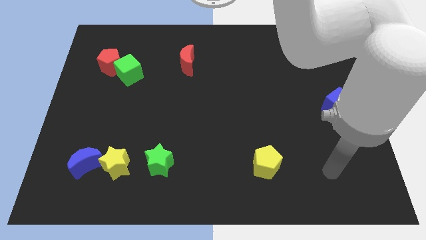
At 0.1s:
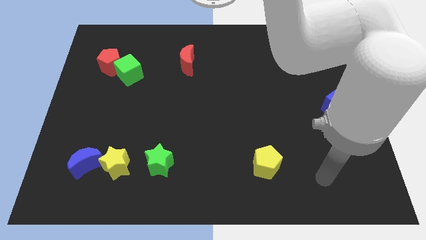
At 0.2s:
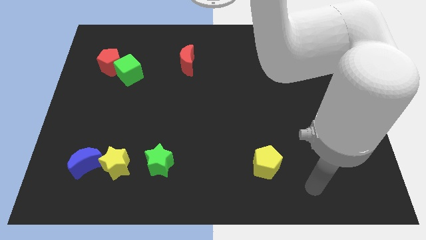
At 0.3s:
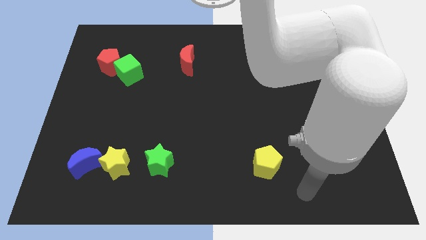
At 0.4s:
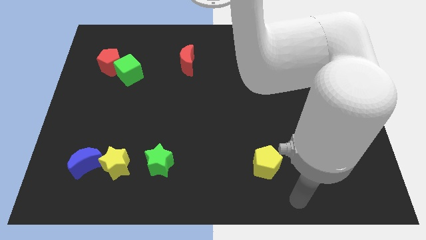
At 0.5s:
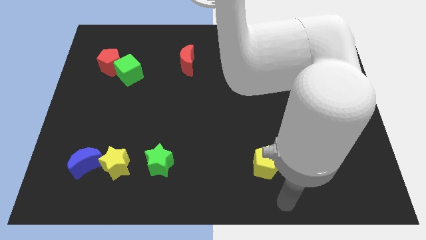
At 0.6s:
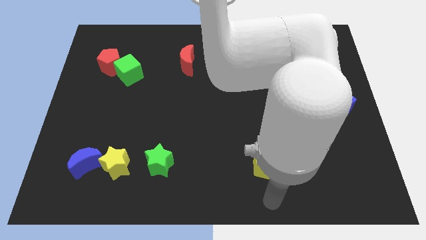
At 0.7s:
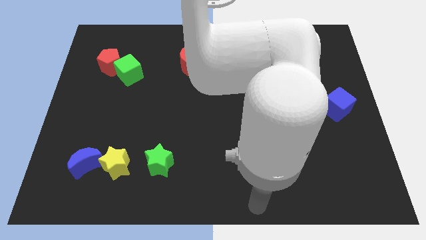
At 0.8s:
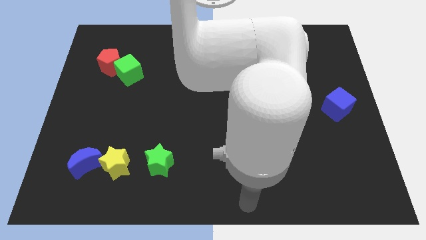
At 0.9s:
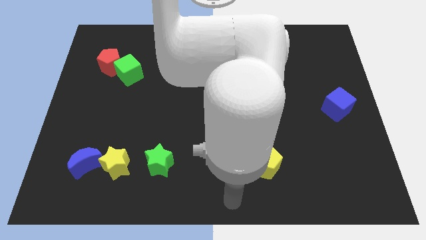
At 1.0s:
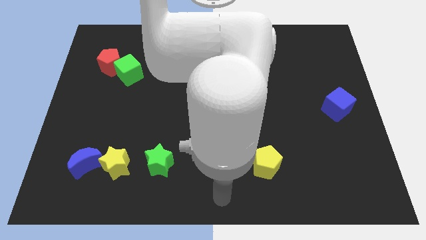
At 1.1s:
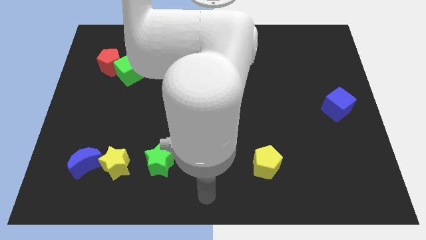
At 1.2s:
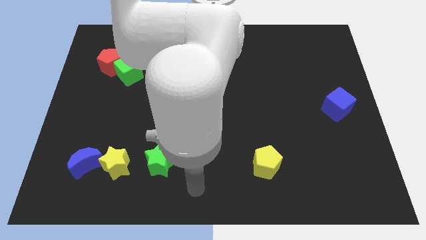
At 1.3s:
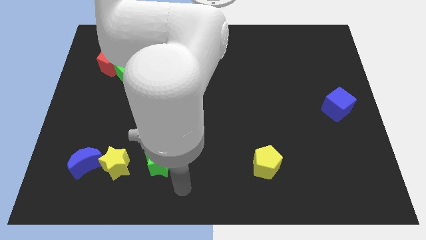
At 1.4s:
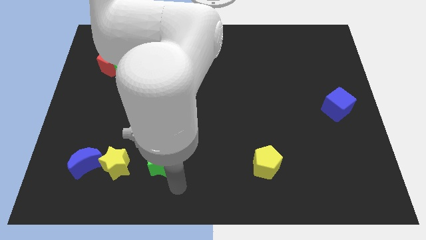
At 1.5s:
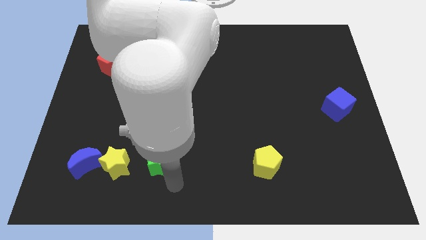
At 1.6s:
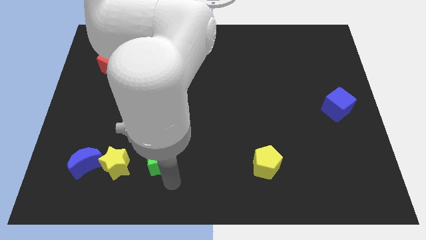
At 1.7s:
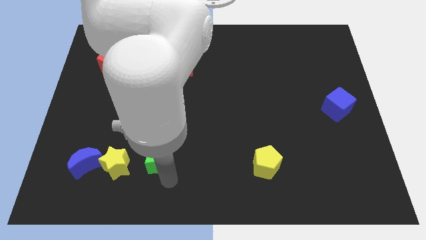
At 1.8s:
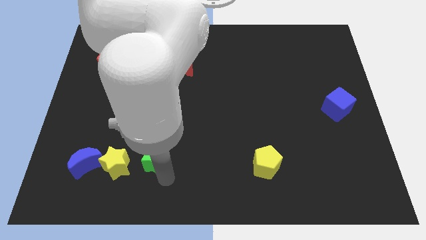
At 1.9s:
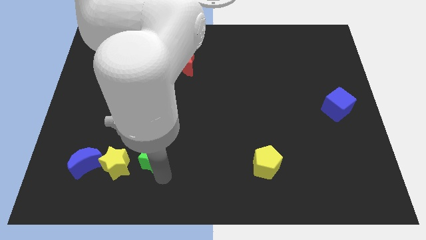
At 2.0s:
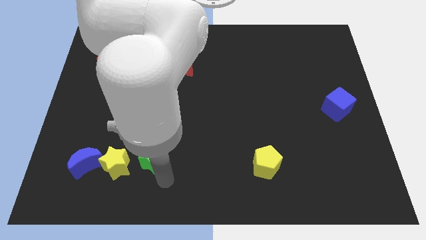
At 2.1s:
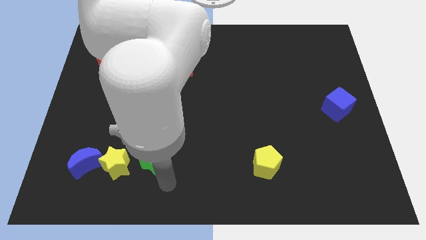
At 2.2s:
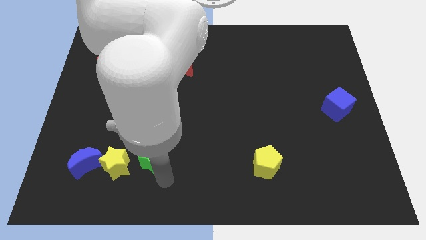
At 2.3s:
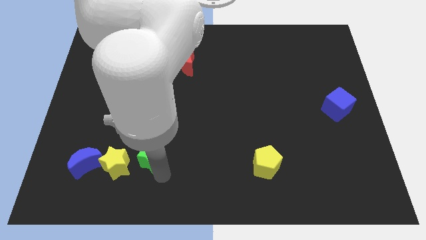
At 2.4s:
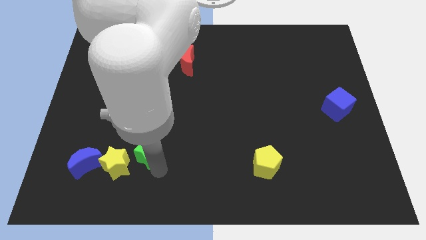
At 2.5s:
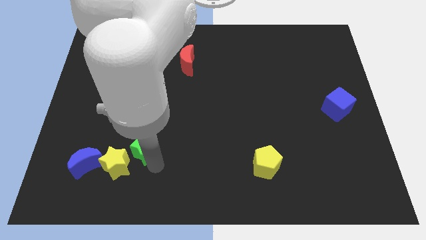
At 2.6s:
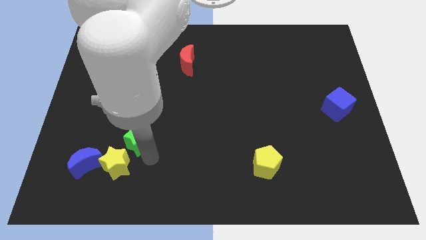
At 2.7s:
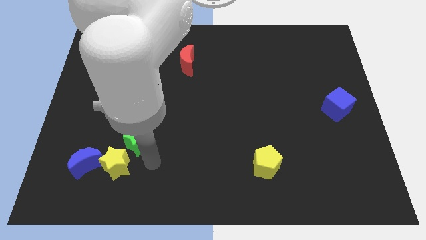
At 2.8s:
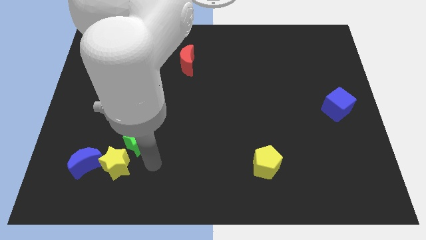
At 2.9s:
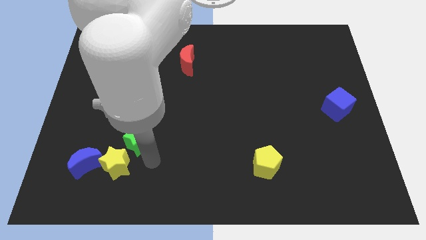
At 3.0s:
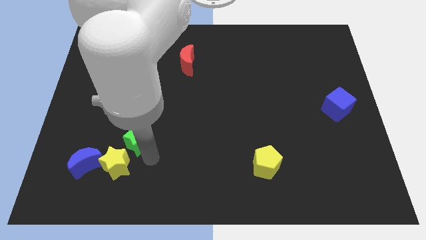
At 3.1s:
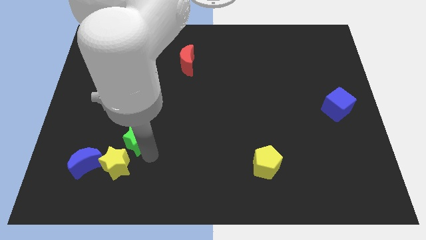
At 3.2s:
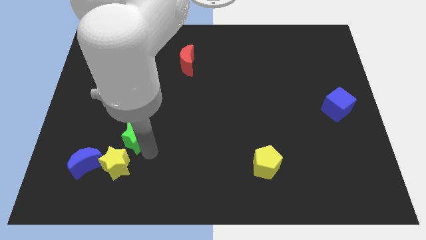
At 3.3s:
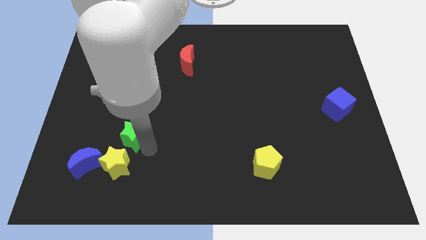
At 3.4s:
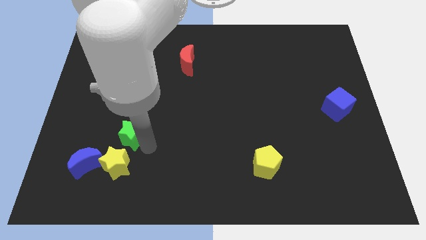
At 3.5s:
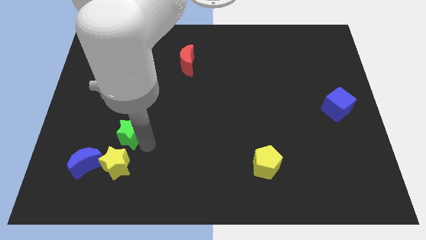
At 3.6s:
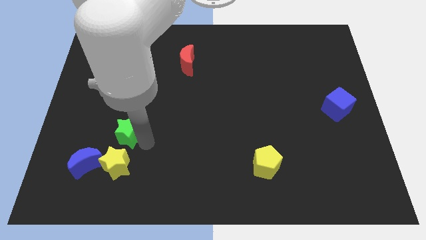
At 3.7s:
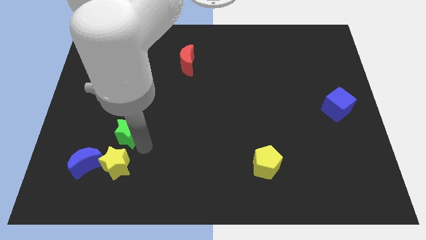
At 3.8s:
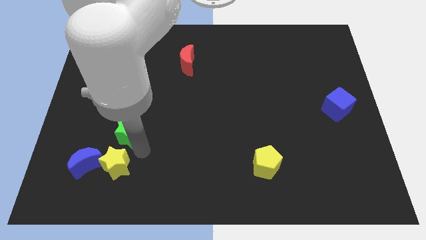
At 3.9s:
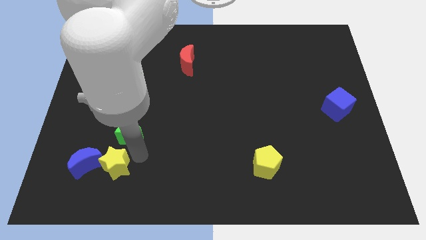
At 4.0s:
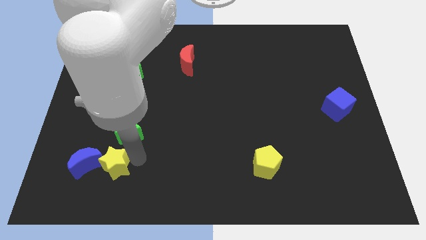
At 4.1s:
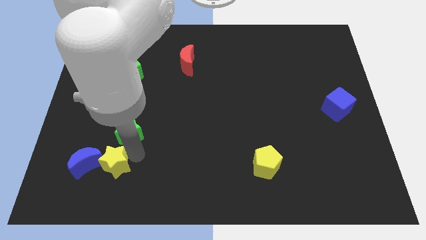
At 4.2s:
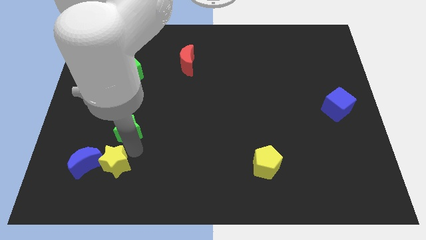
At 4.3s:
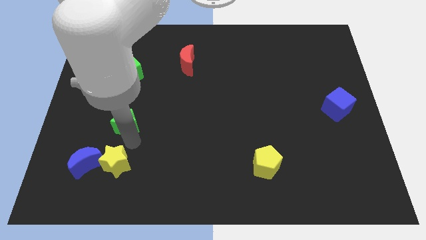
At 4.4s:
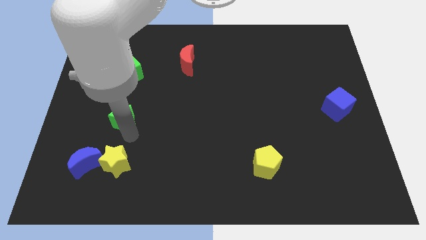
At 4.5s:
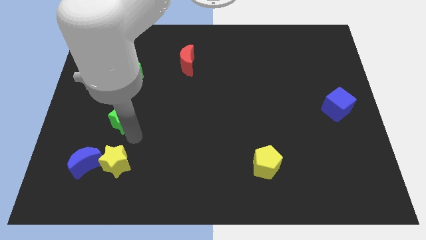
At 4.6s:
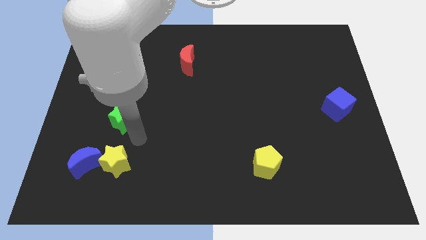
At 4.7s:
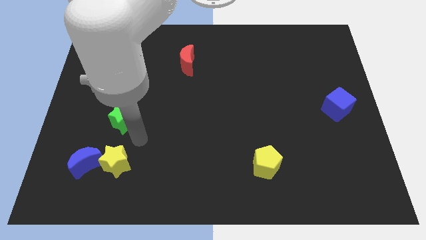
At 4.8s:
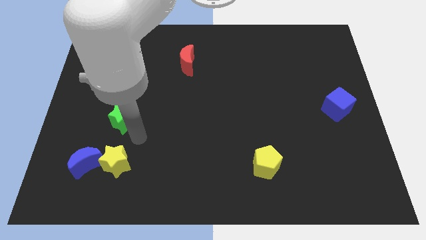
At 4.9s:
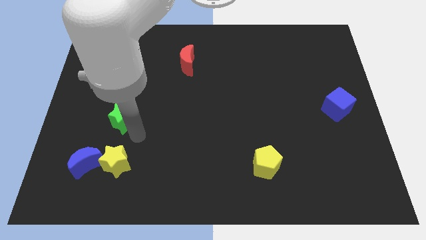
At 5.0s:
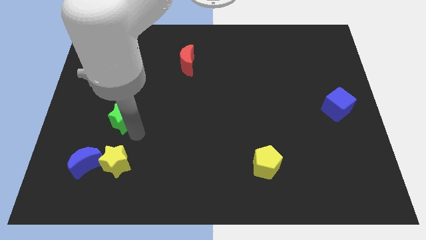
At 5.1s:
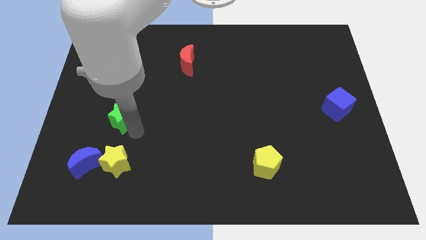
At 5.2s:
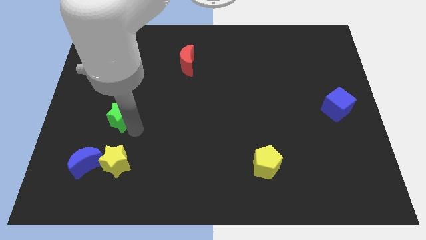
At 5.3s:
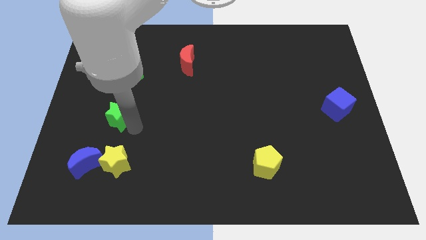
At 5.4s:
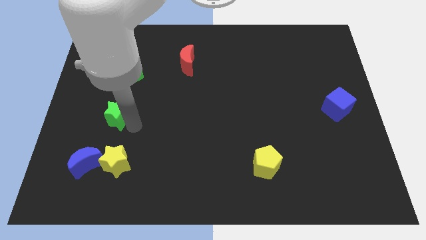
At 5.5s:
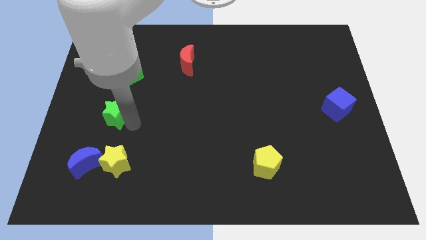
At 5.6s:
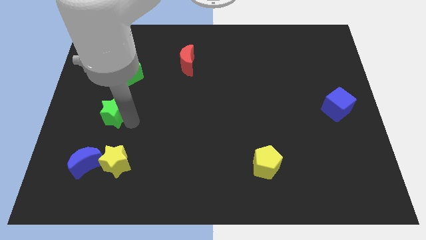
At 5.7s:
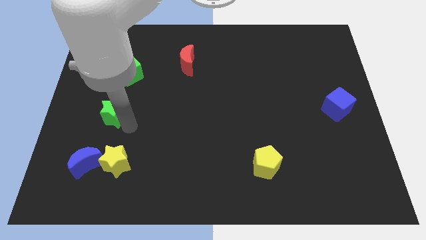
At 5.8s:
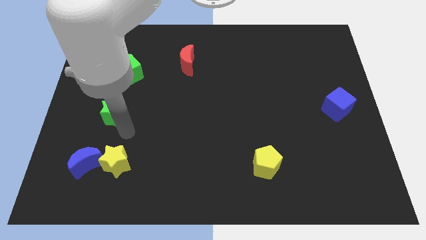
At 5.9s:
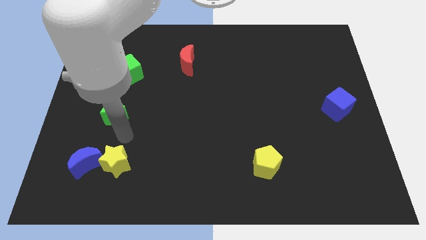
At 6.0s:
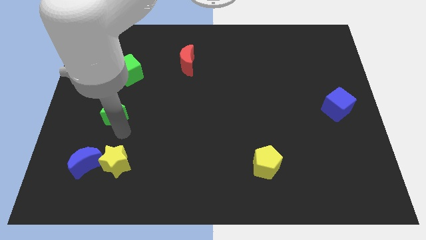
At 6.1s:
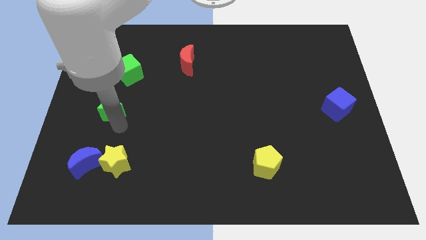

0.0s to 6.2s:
put the green star to the bottom side of the red pentagon

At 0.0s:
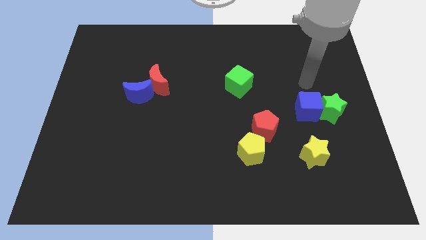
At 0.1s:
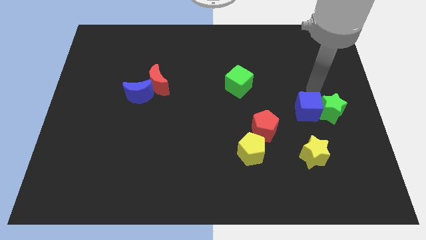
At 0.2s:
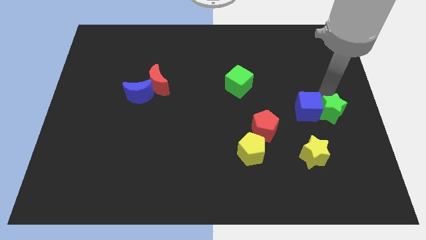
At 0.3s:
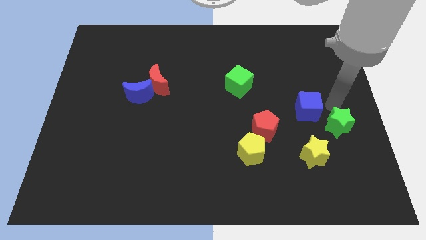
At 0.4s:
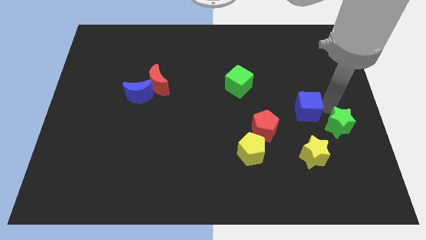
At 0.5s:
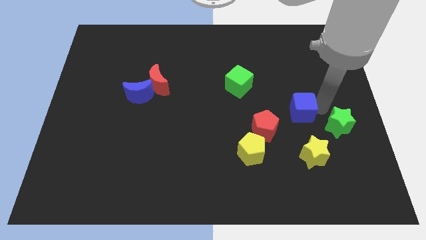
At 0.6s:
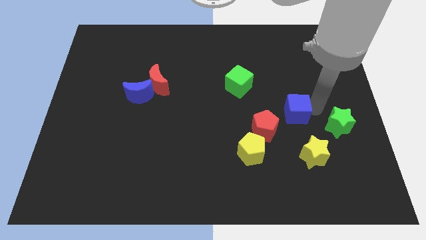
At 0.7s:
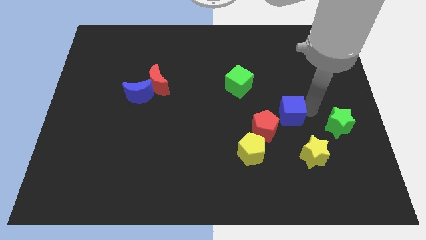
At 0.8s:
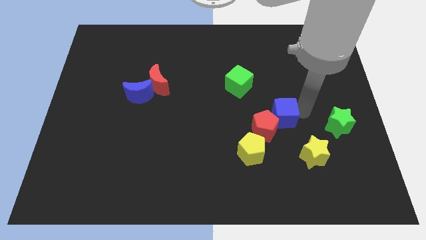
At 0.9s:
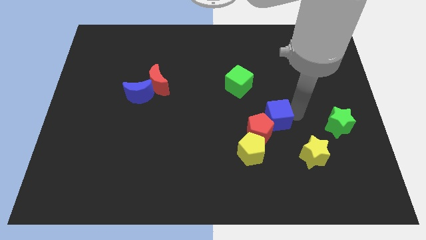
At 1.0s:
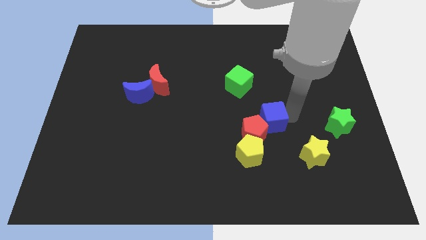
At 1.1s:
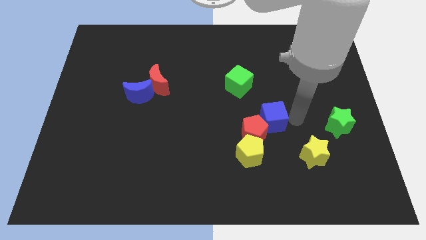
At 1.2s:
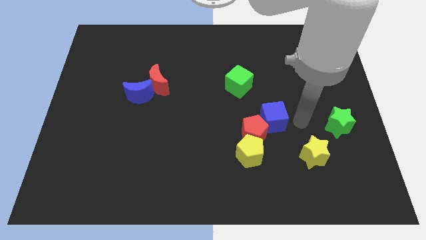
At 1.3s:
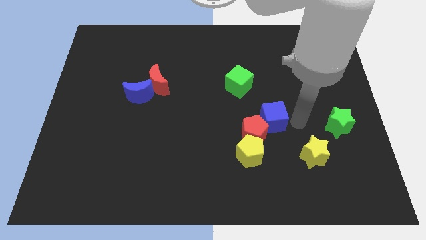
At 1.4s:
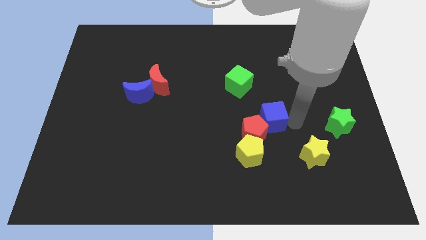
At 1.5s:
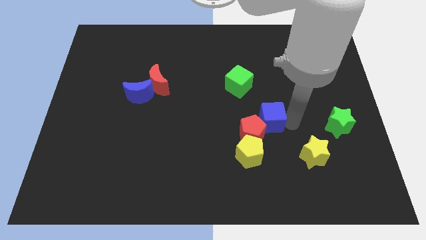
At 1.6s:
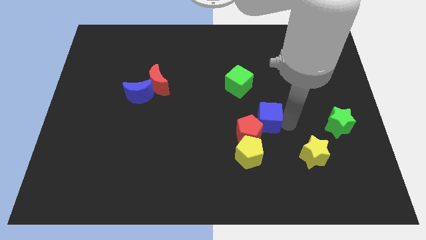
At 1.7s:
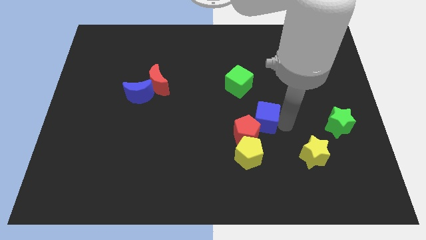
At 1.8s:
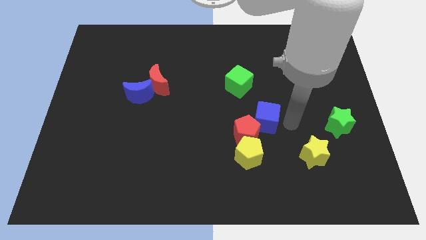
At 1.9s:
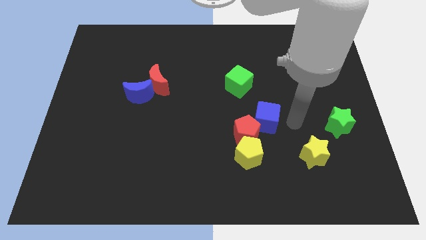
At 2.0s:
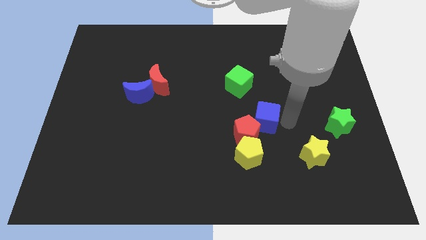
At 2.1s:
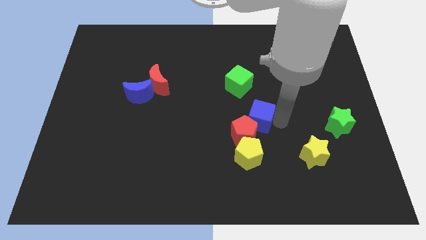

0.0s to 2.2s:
put the blue cube below the green cube
